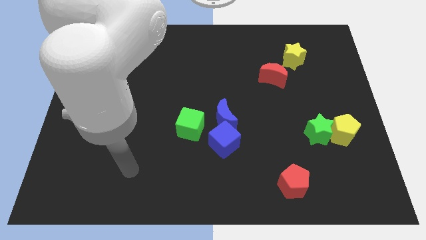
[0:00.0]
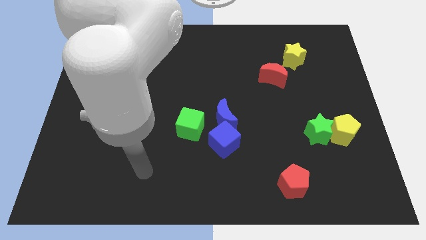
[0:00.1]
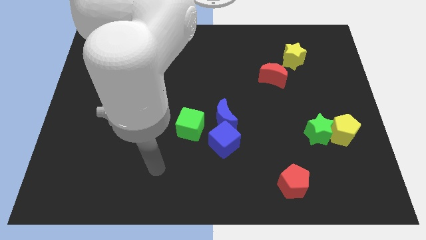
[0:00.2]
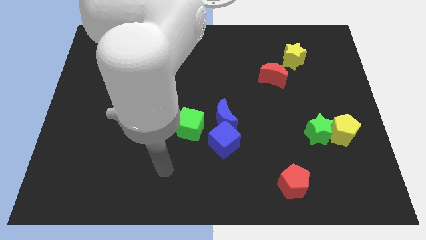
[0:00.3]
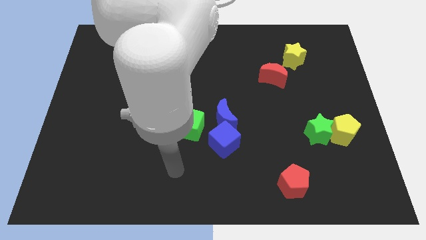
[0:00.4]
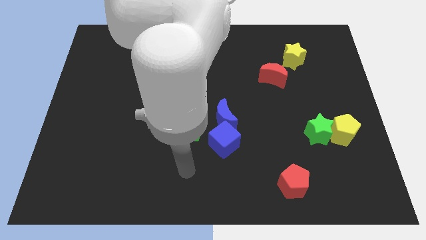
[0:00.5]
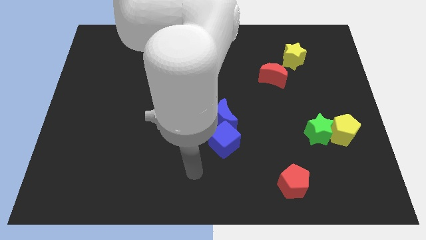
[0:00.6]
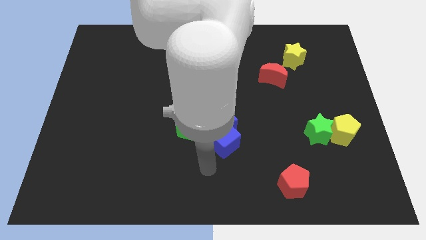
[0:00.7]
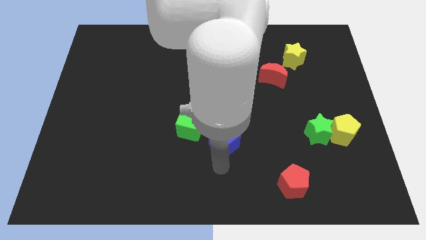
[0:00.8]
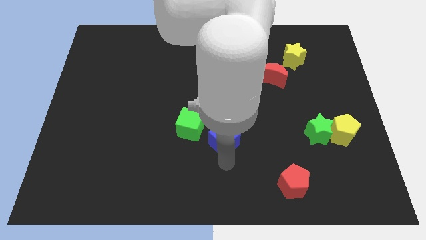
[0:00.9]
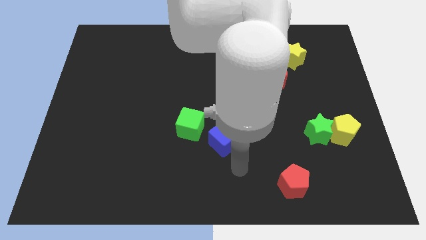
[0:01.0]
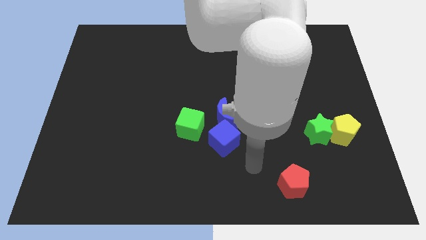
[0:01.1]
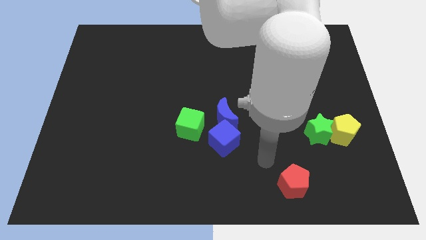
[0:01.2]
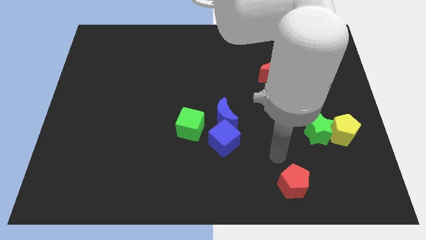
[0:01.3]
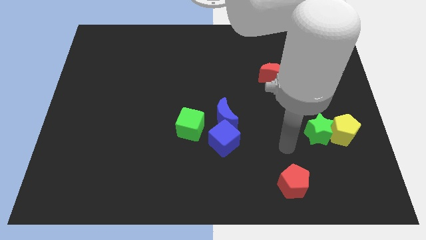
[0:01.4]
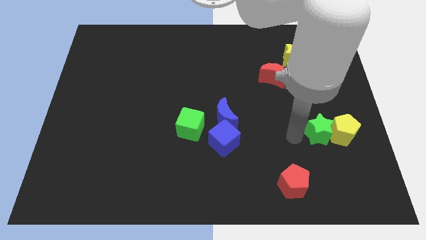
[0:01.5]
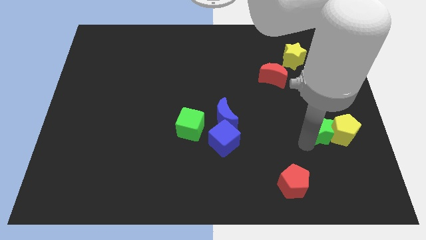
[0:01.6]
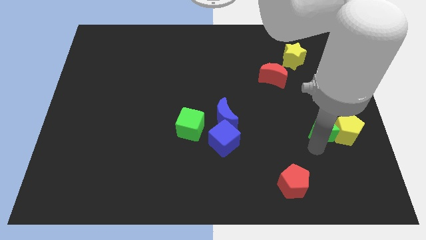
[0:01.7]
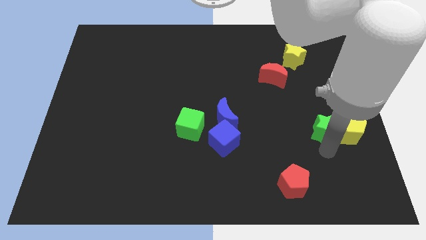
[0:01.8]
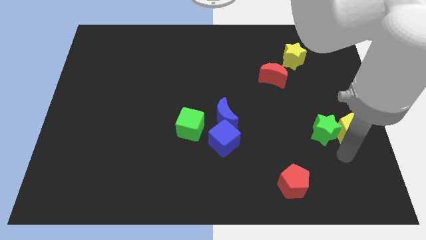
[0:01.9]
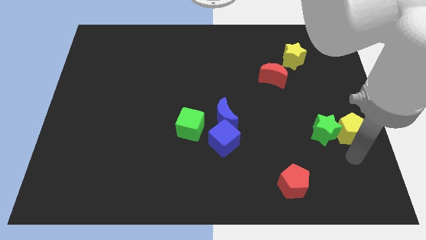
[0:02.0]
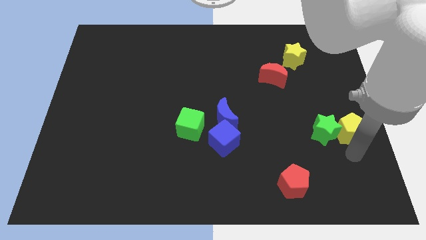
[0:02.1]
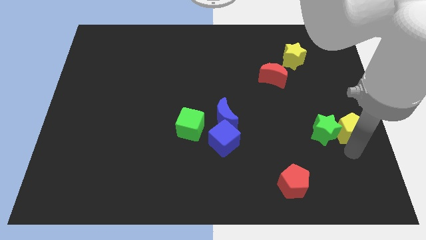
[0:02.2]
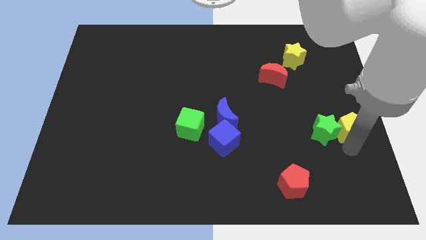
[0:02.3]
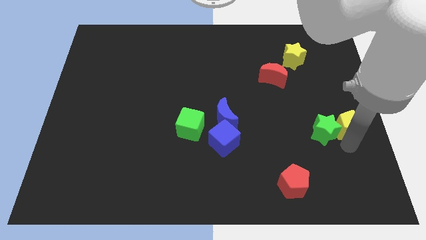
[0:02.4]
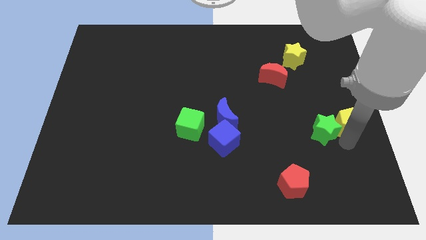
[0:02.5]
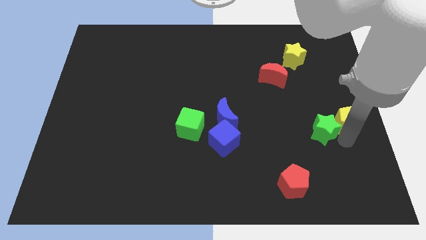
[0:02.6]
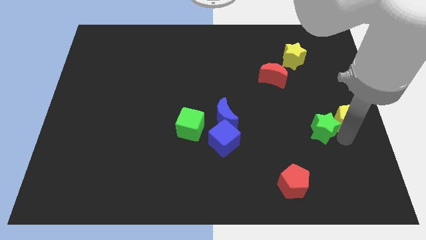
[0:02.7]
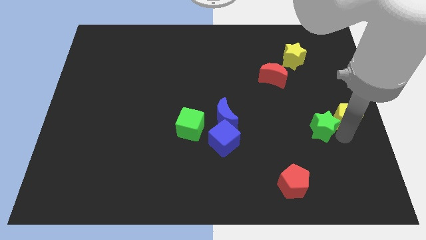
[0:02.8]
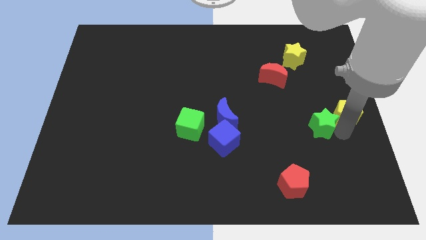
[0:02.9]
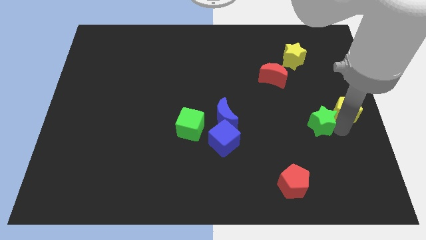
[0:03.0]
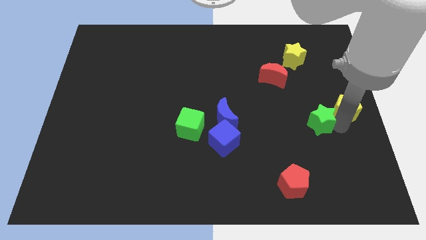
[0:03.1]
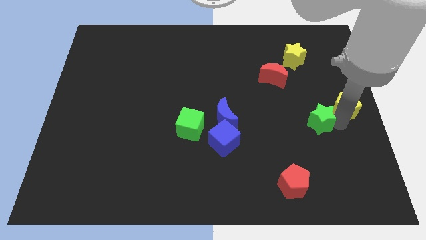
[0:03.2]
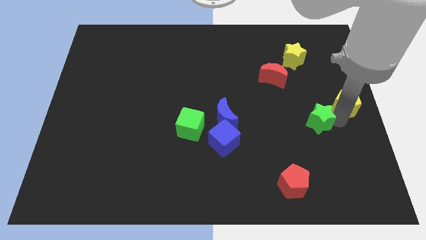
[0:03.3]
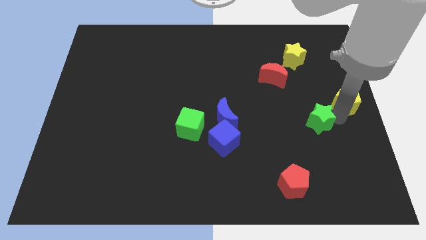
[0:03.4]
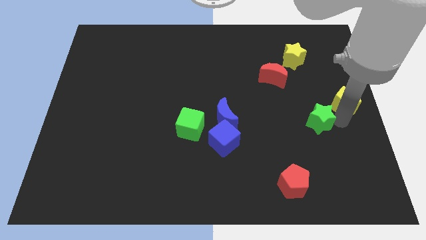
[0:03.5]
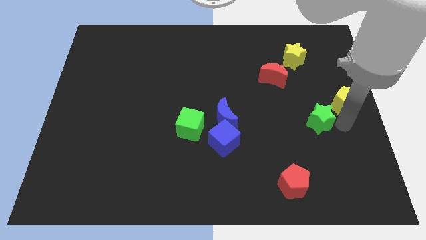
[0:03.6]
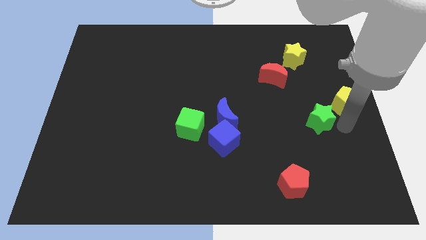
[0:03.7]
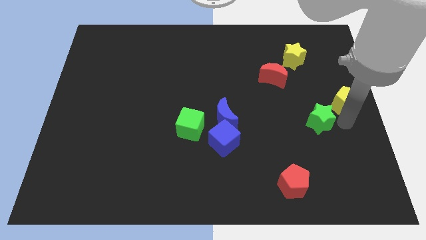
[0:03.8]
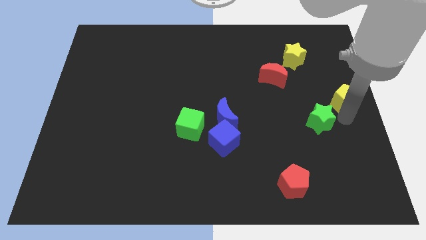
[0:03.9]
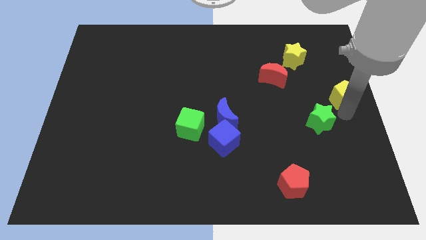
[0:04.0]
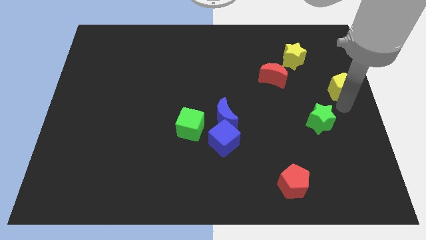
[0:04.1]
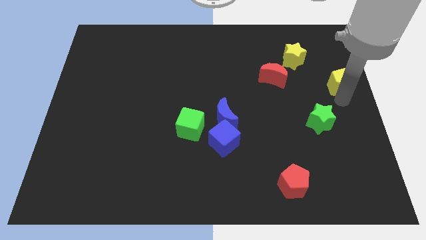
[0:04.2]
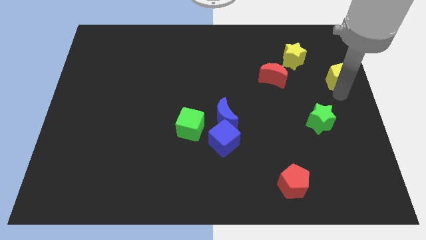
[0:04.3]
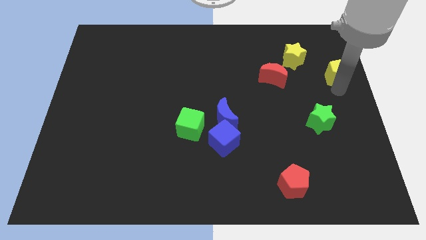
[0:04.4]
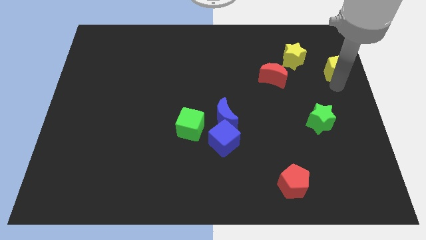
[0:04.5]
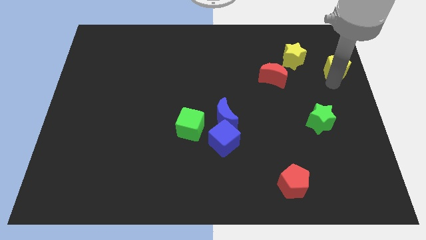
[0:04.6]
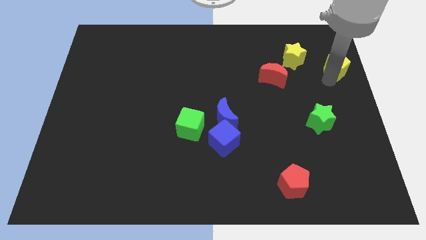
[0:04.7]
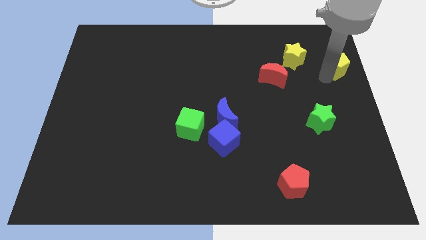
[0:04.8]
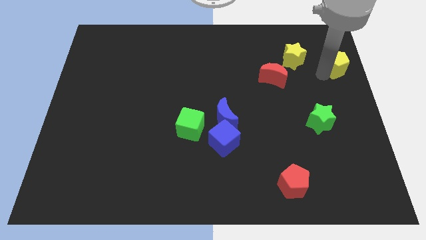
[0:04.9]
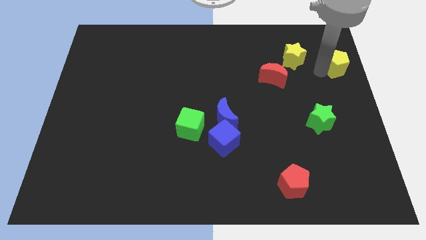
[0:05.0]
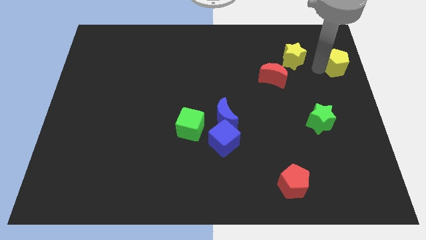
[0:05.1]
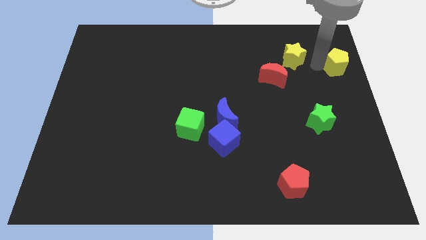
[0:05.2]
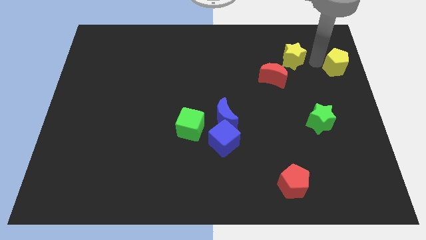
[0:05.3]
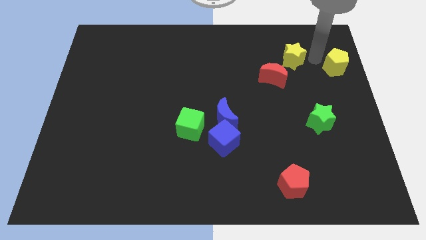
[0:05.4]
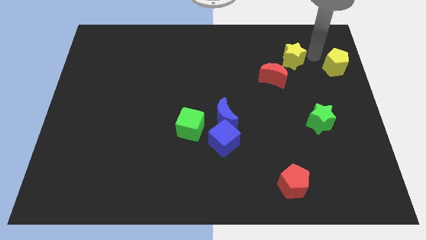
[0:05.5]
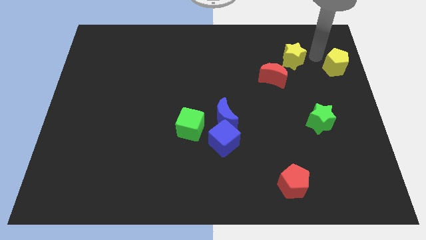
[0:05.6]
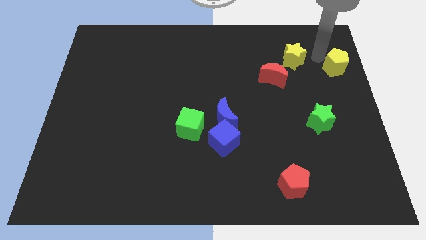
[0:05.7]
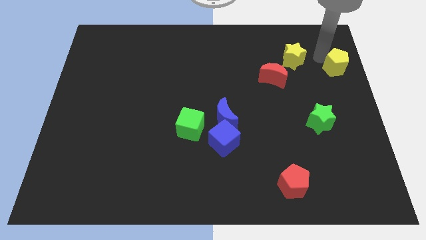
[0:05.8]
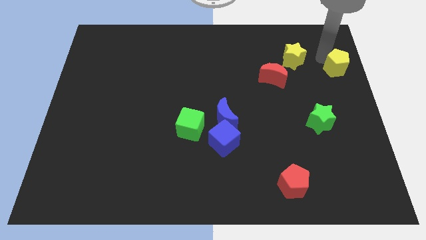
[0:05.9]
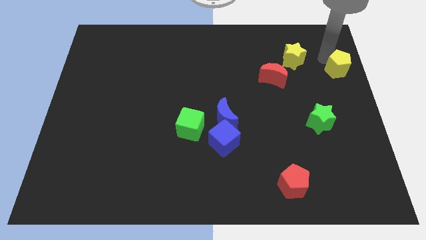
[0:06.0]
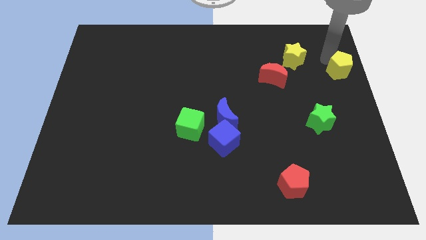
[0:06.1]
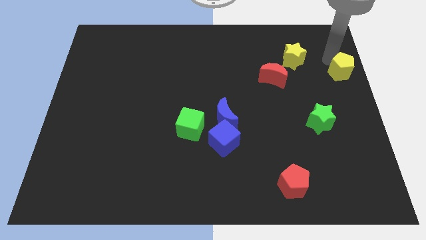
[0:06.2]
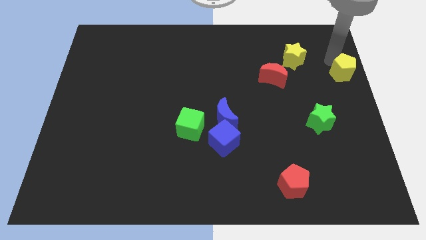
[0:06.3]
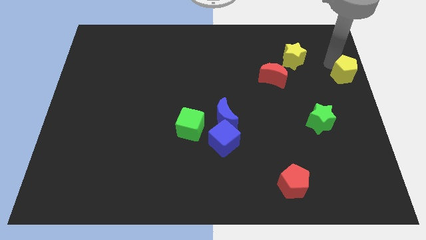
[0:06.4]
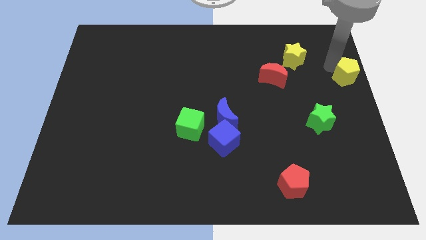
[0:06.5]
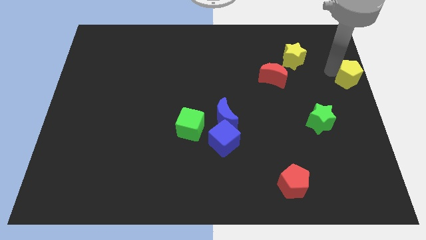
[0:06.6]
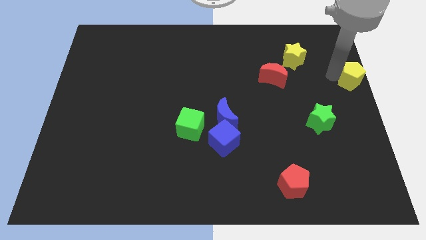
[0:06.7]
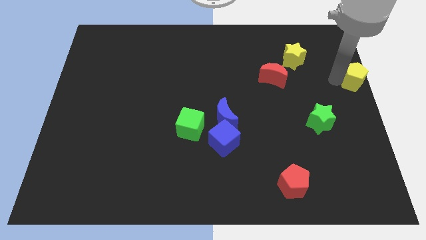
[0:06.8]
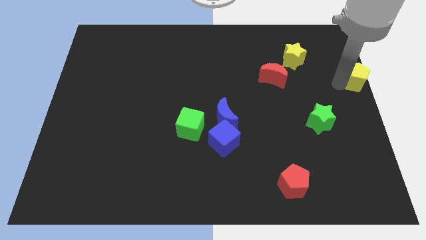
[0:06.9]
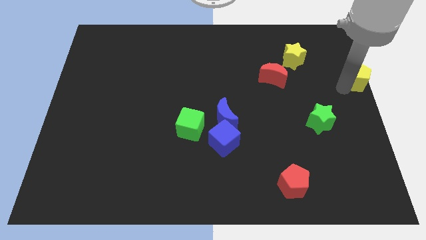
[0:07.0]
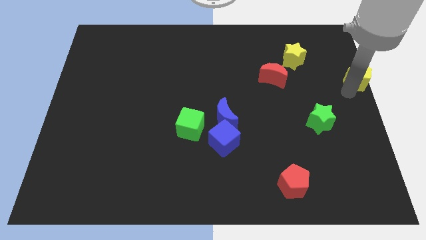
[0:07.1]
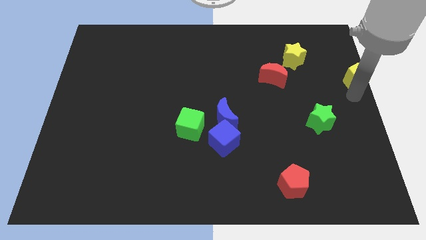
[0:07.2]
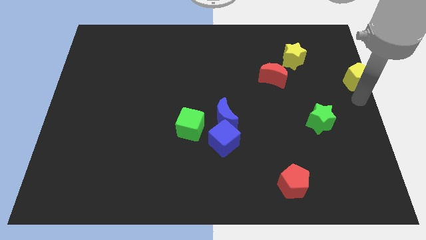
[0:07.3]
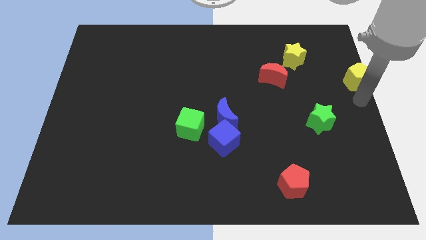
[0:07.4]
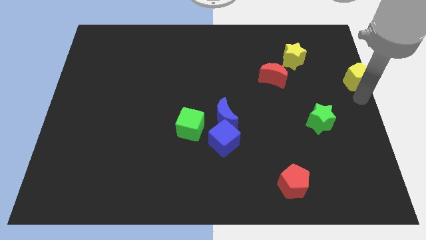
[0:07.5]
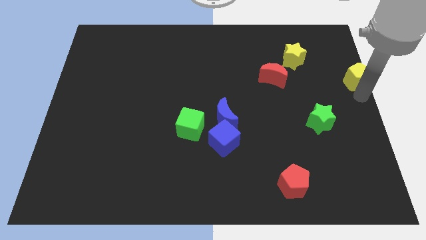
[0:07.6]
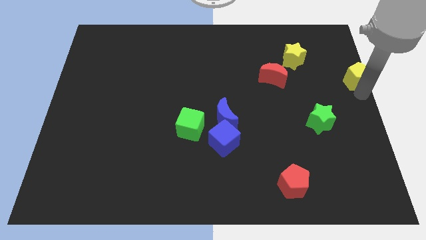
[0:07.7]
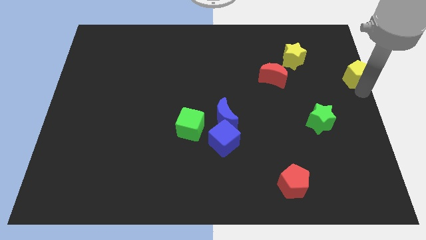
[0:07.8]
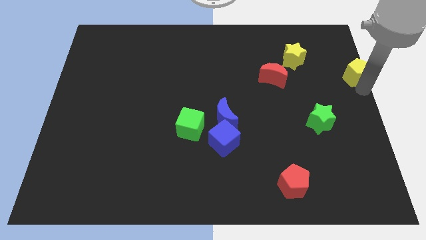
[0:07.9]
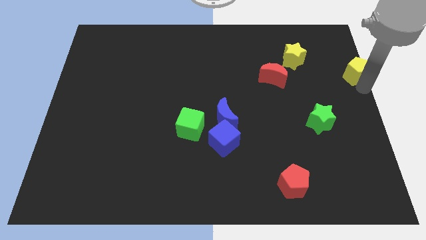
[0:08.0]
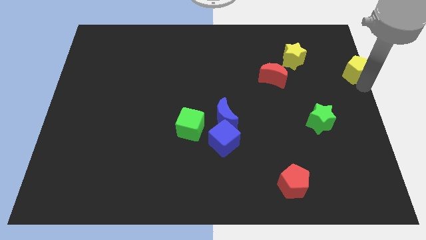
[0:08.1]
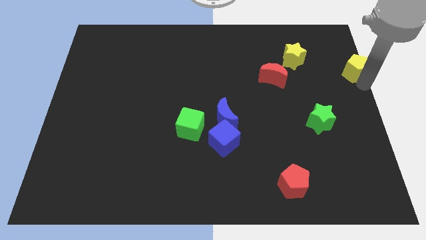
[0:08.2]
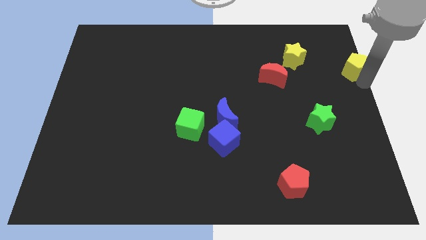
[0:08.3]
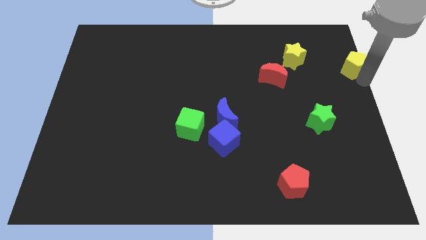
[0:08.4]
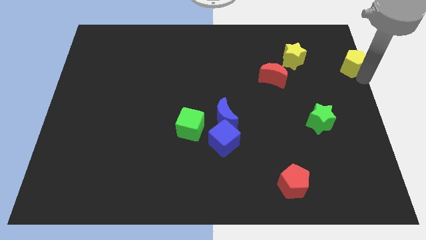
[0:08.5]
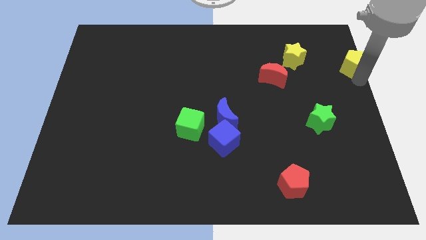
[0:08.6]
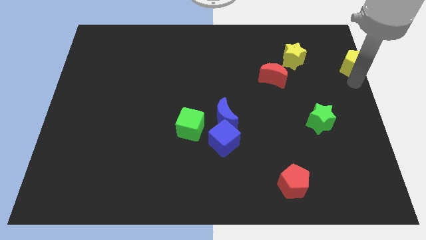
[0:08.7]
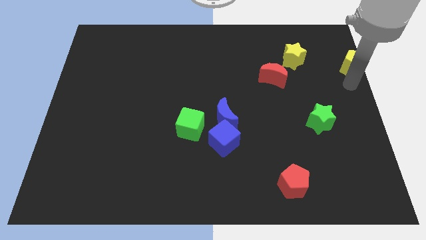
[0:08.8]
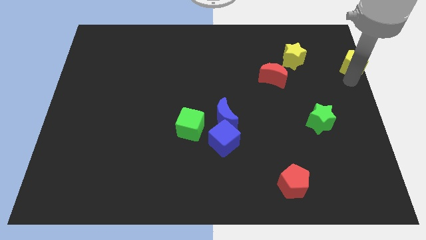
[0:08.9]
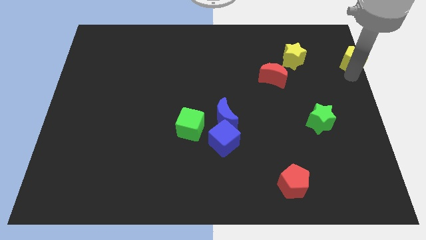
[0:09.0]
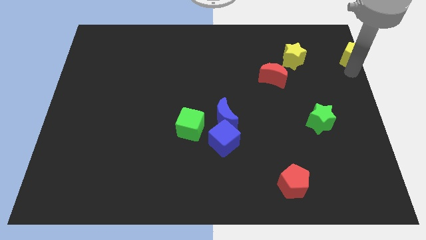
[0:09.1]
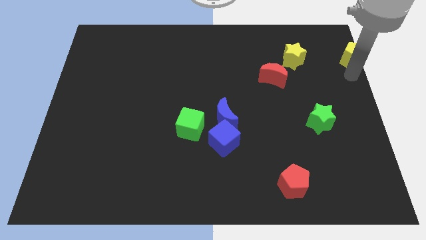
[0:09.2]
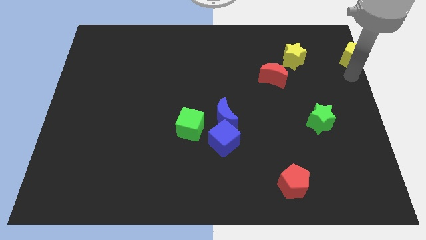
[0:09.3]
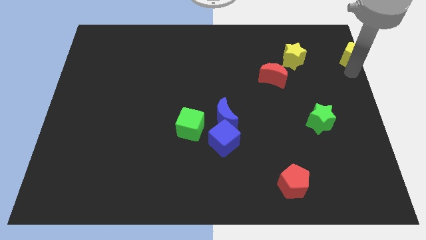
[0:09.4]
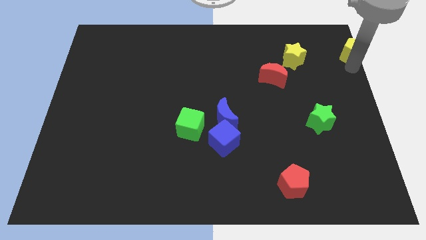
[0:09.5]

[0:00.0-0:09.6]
push the yellow pentagon to the upper right corner
